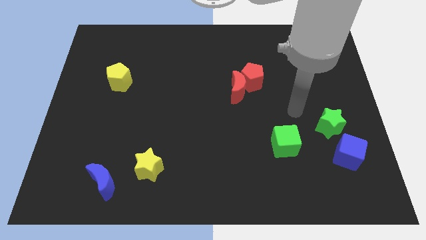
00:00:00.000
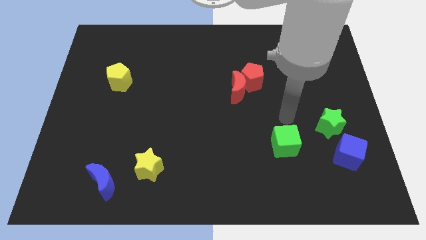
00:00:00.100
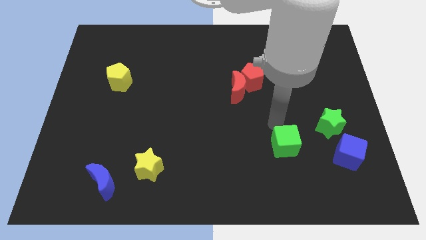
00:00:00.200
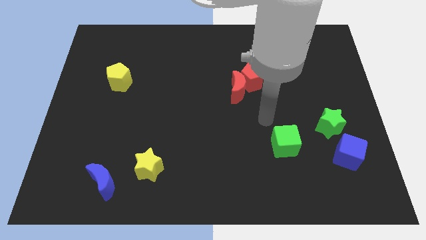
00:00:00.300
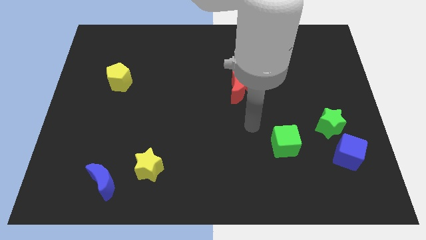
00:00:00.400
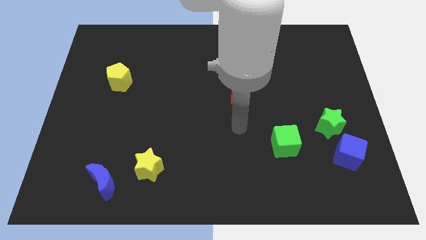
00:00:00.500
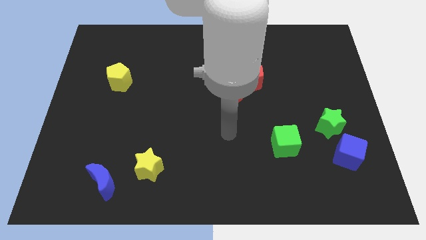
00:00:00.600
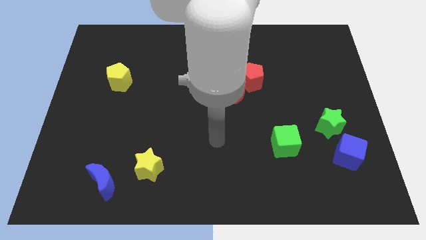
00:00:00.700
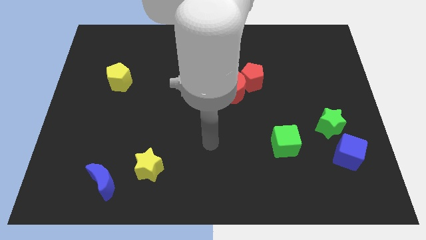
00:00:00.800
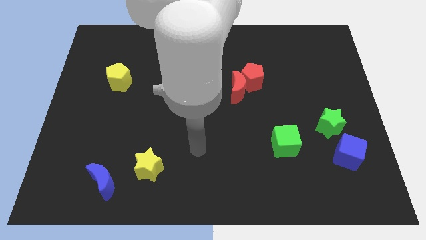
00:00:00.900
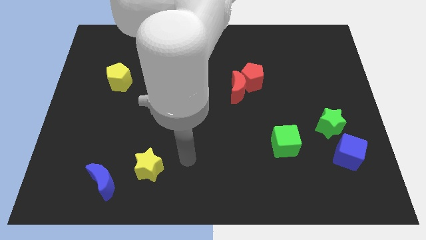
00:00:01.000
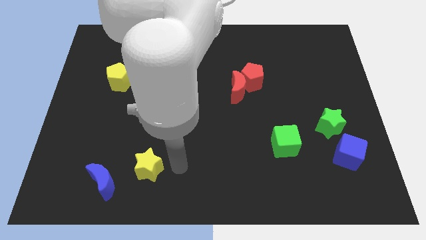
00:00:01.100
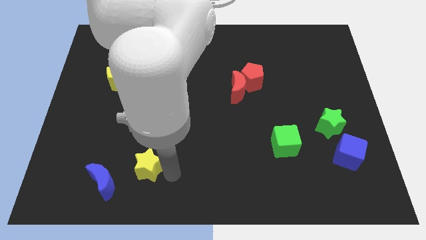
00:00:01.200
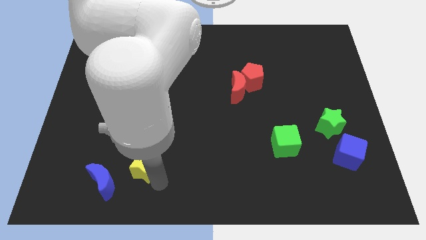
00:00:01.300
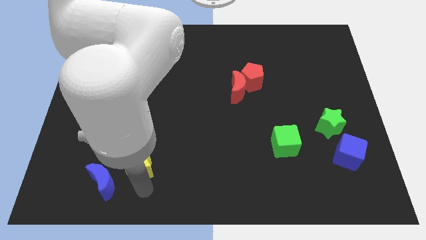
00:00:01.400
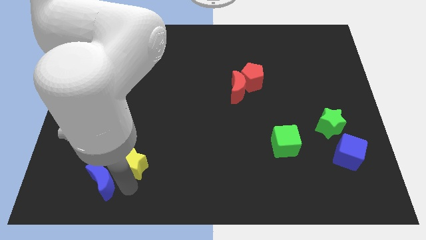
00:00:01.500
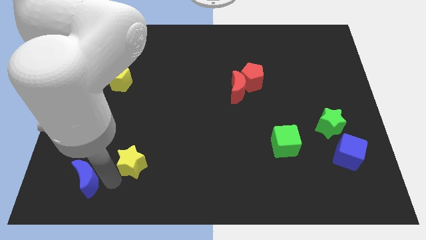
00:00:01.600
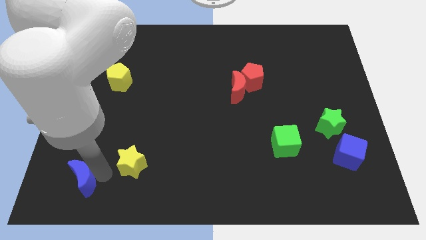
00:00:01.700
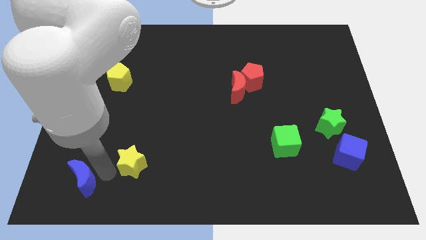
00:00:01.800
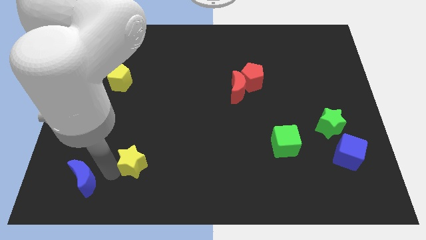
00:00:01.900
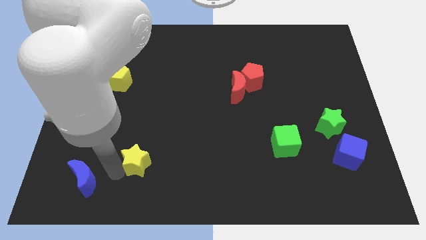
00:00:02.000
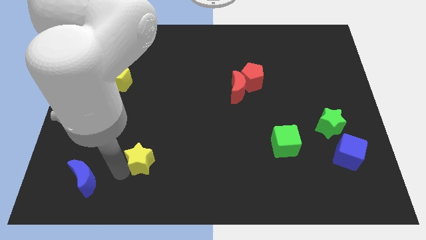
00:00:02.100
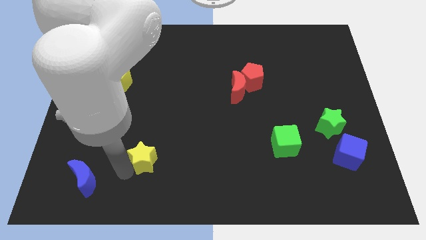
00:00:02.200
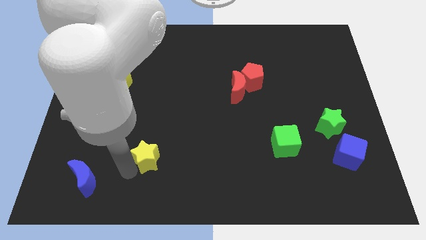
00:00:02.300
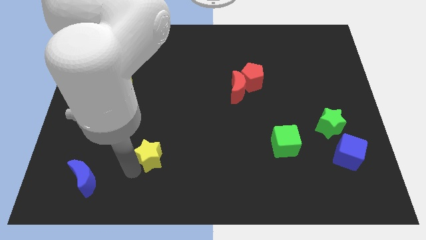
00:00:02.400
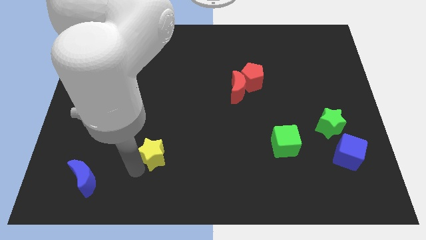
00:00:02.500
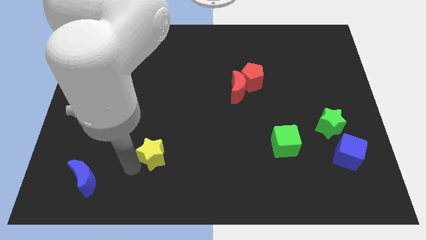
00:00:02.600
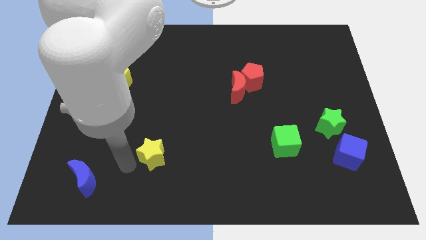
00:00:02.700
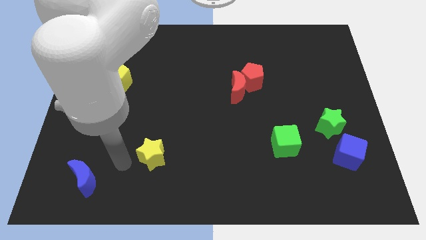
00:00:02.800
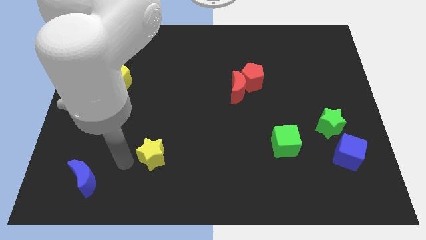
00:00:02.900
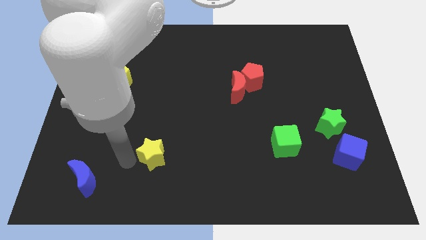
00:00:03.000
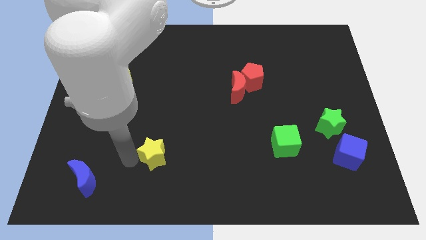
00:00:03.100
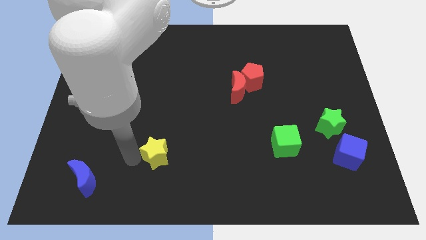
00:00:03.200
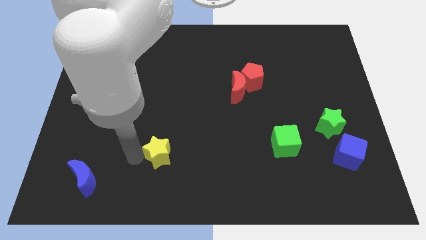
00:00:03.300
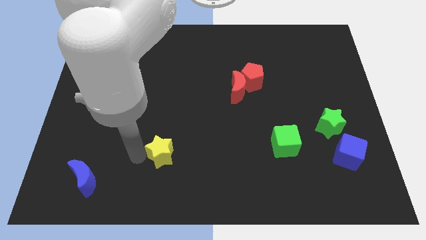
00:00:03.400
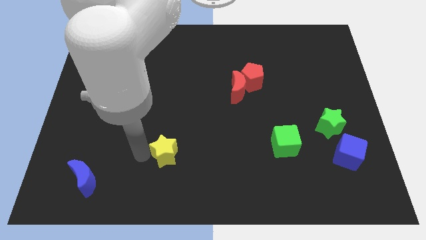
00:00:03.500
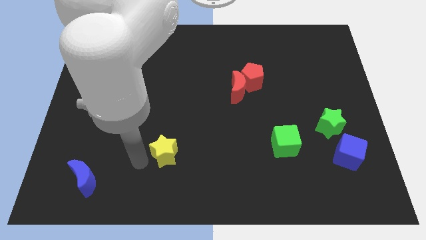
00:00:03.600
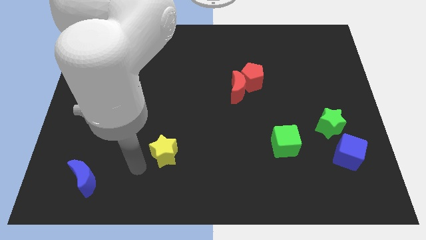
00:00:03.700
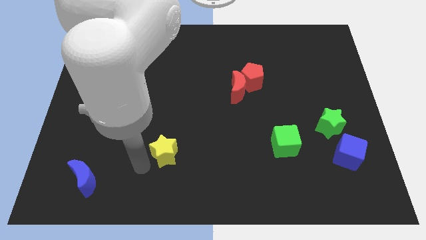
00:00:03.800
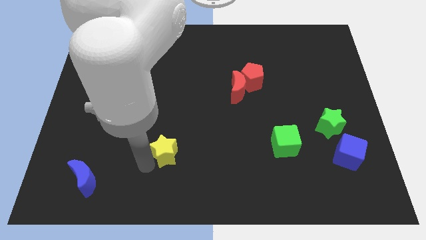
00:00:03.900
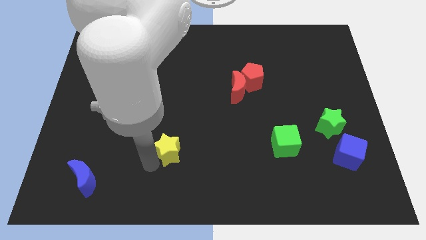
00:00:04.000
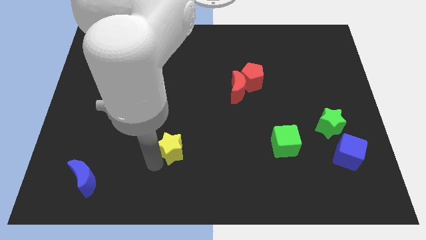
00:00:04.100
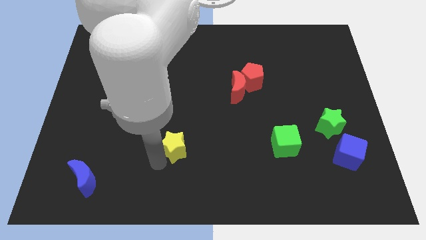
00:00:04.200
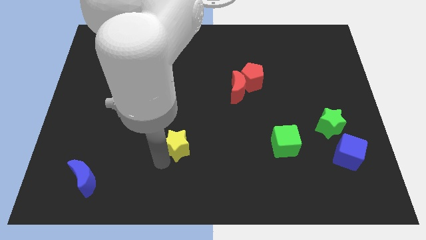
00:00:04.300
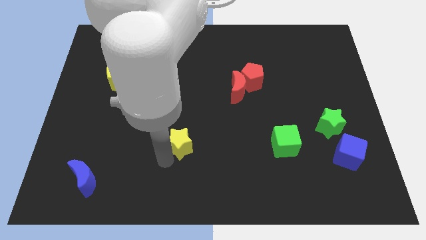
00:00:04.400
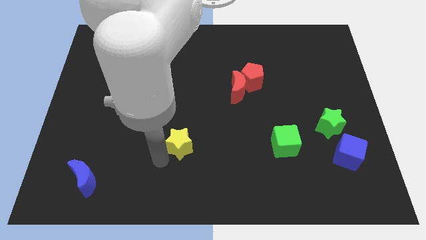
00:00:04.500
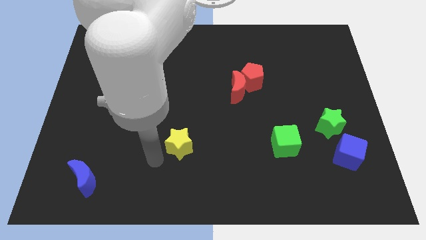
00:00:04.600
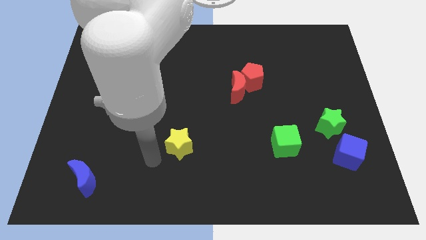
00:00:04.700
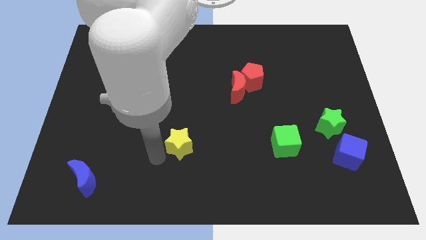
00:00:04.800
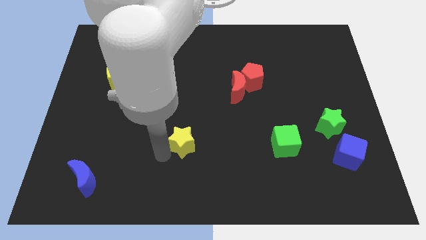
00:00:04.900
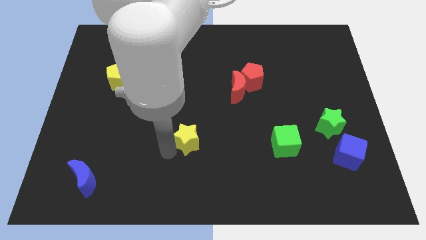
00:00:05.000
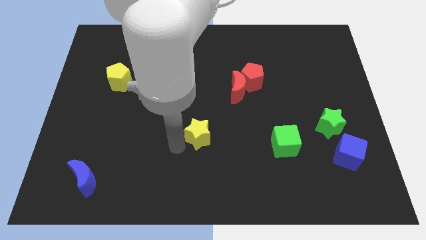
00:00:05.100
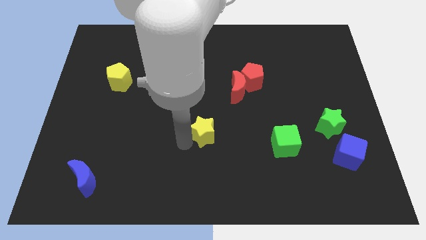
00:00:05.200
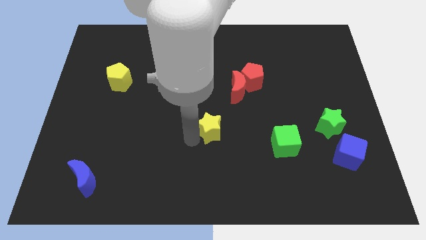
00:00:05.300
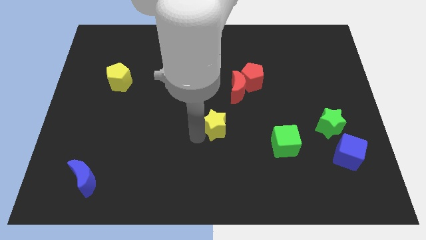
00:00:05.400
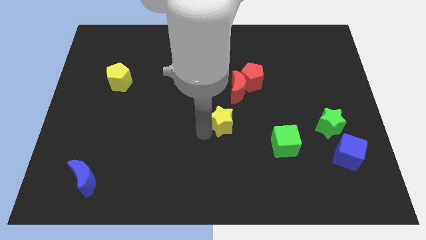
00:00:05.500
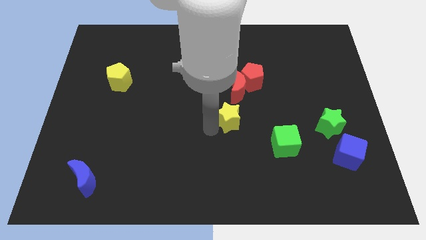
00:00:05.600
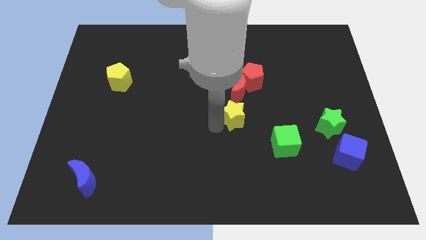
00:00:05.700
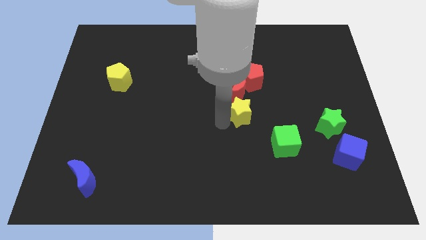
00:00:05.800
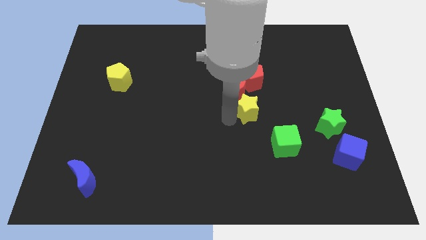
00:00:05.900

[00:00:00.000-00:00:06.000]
move the yellow star to the bottom right of the red moon

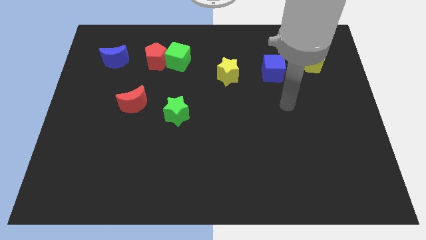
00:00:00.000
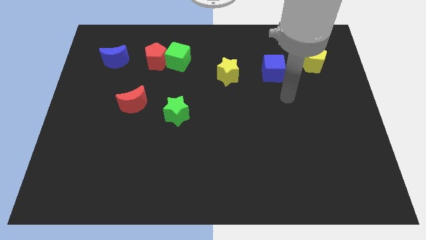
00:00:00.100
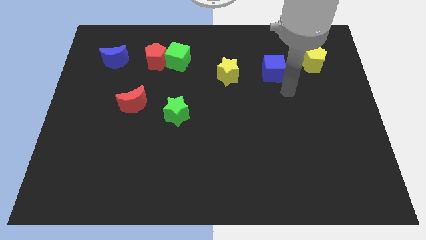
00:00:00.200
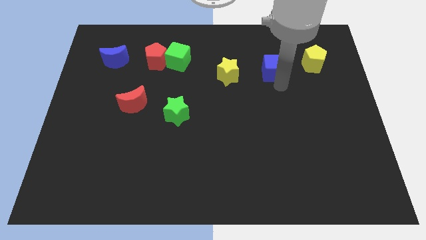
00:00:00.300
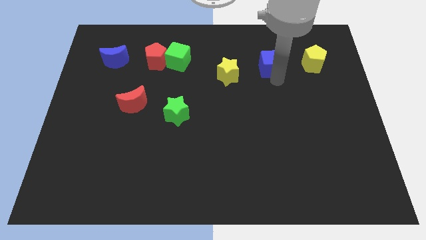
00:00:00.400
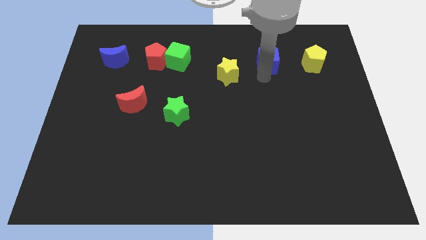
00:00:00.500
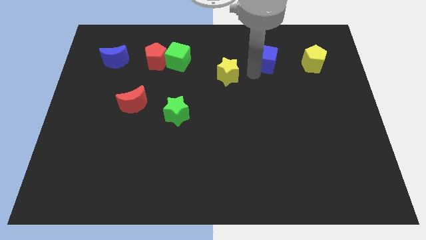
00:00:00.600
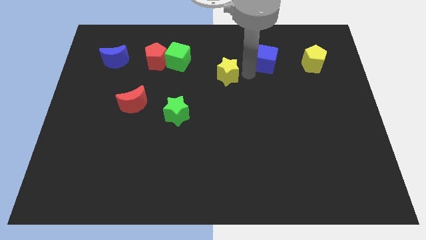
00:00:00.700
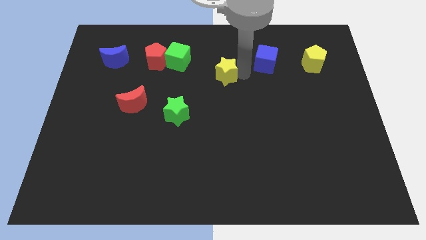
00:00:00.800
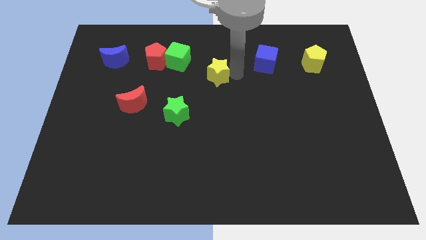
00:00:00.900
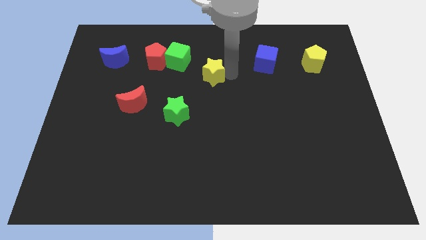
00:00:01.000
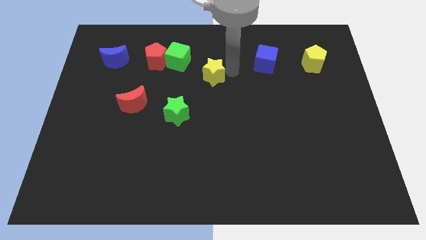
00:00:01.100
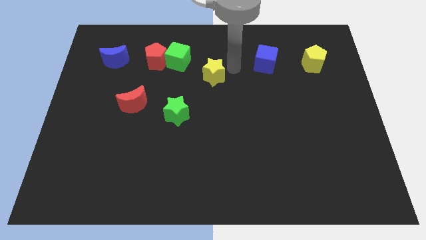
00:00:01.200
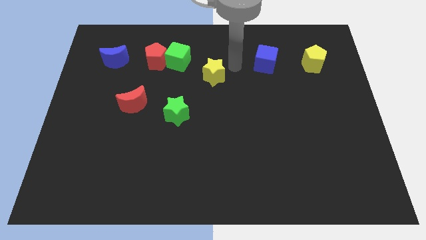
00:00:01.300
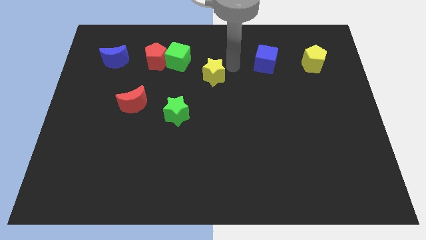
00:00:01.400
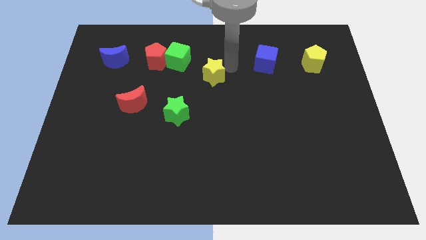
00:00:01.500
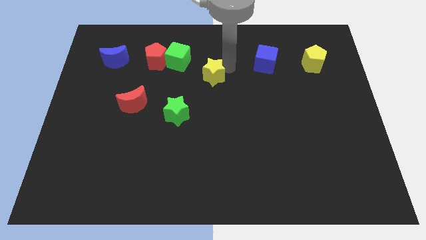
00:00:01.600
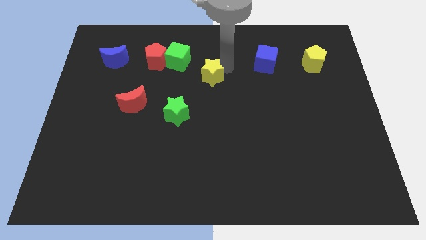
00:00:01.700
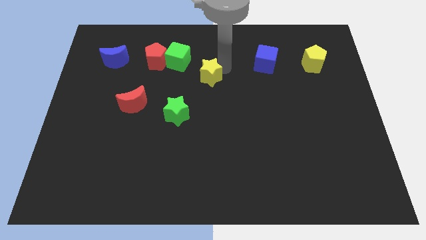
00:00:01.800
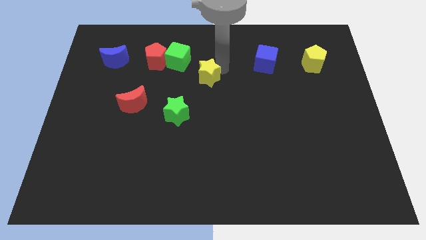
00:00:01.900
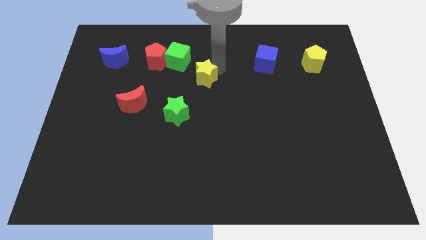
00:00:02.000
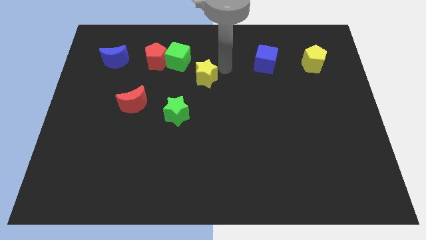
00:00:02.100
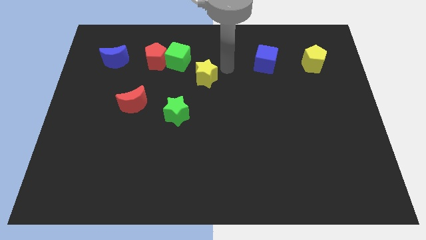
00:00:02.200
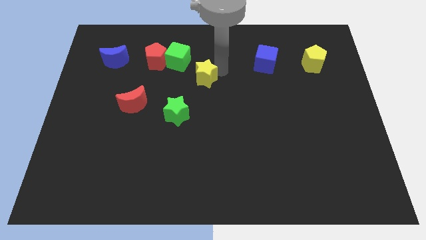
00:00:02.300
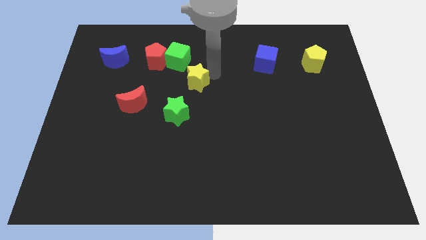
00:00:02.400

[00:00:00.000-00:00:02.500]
move the yellow star below the green cube
